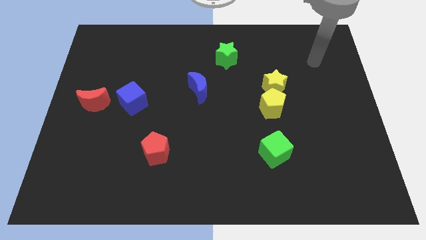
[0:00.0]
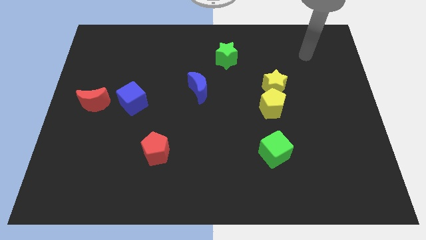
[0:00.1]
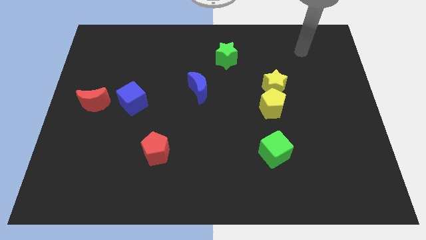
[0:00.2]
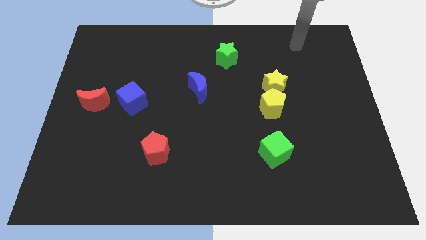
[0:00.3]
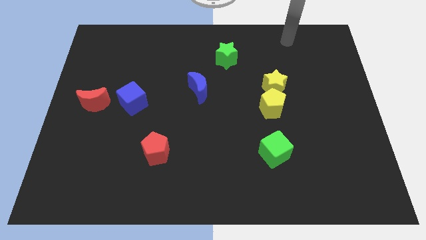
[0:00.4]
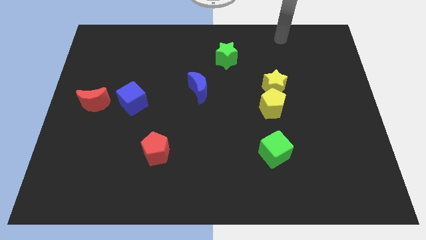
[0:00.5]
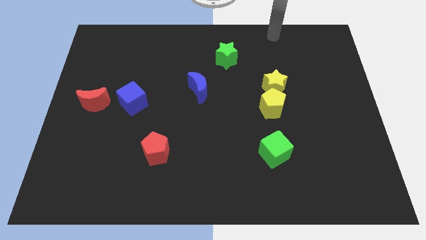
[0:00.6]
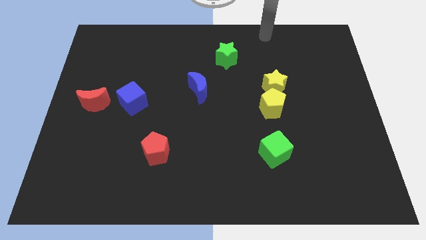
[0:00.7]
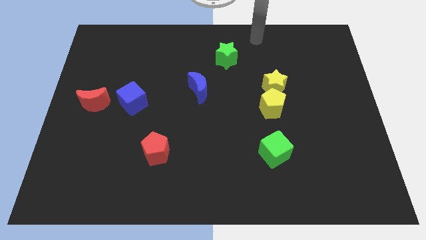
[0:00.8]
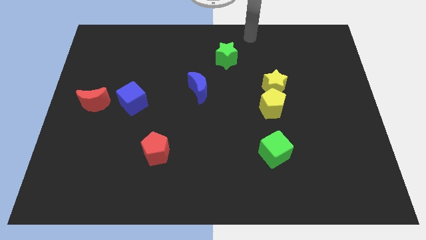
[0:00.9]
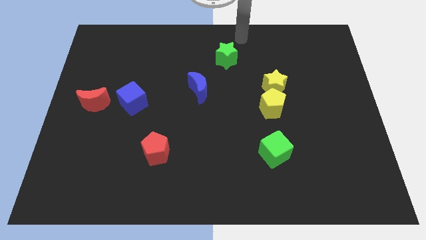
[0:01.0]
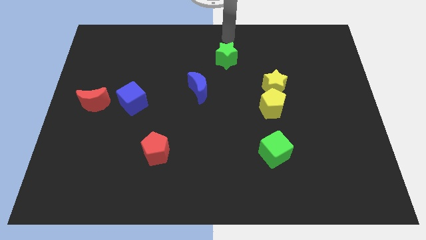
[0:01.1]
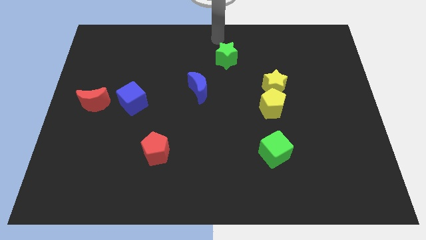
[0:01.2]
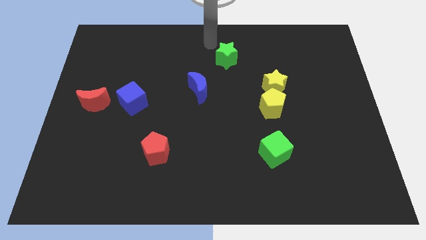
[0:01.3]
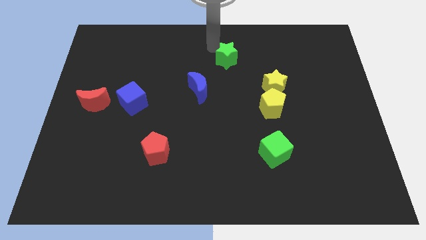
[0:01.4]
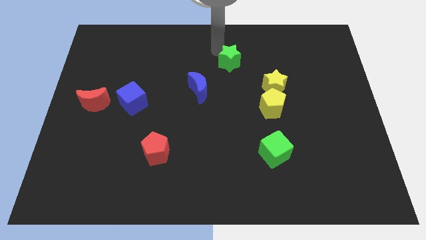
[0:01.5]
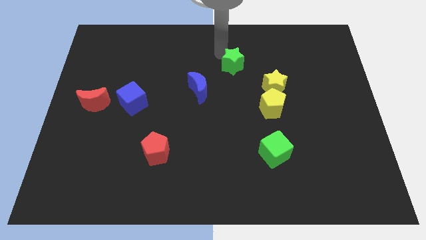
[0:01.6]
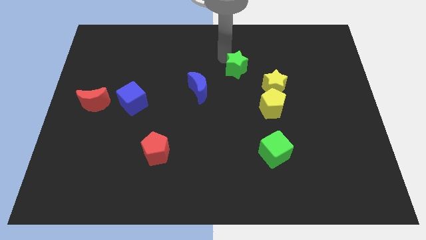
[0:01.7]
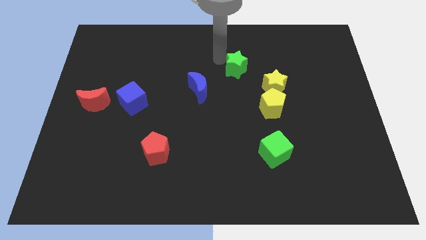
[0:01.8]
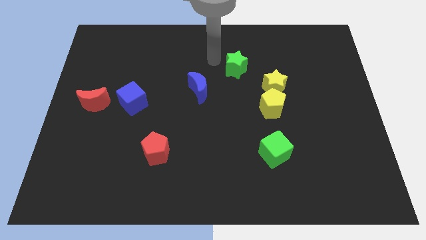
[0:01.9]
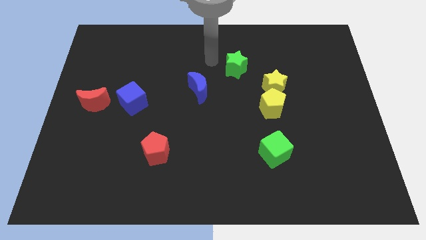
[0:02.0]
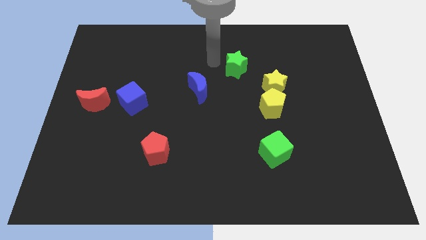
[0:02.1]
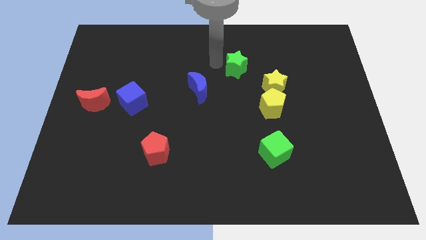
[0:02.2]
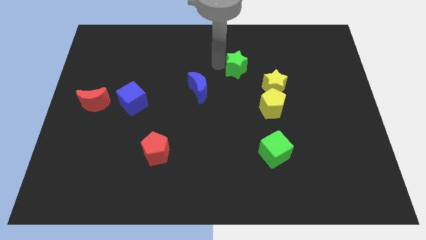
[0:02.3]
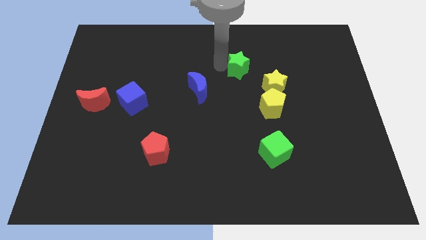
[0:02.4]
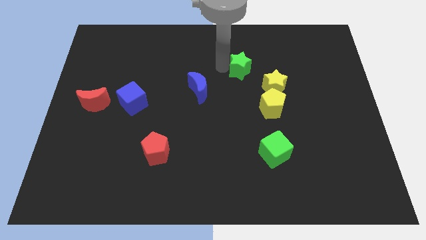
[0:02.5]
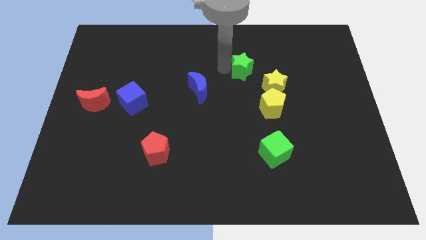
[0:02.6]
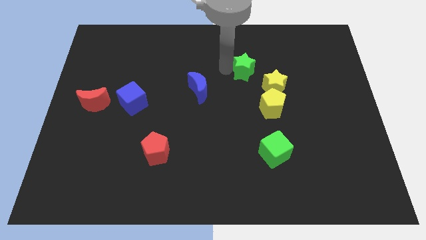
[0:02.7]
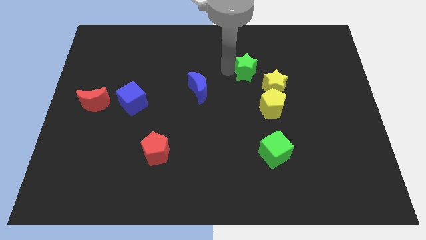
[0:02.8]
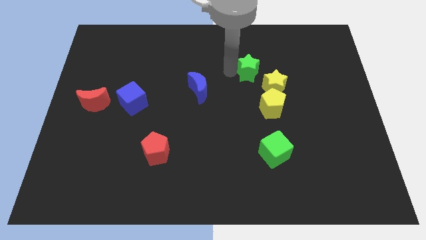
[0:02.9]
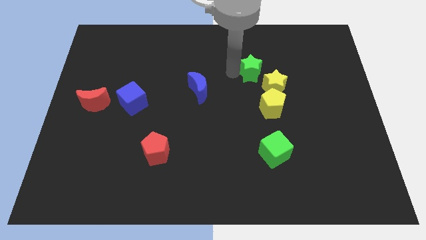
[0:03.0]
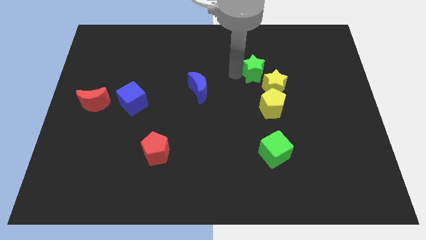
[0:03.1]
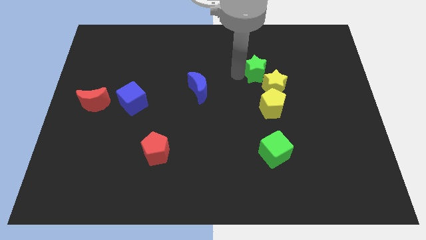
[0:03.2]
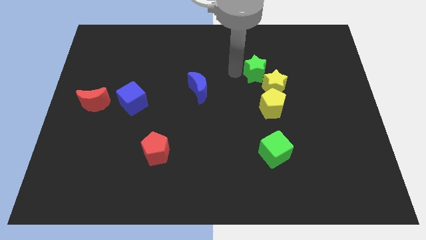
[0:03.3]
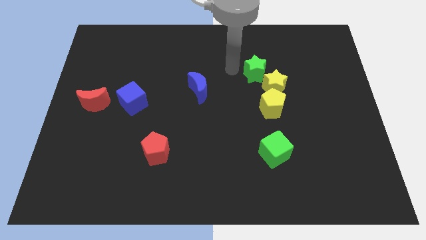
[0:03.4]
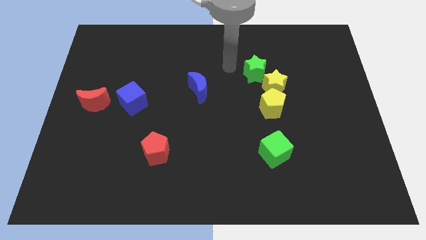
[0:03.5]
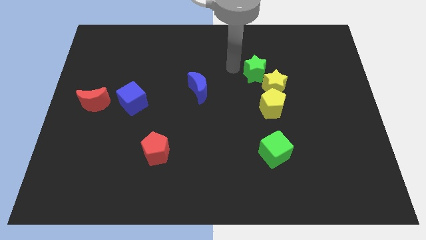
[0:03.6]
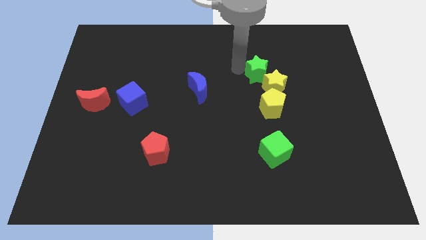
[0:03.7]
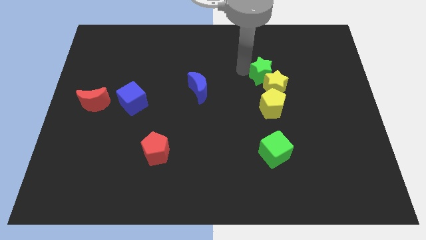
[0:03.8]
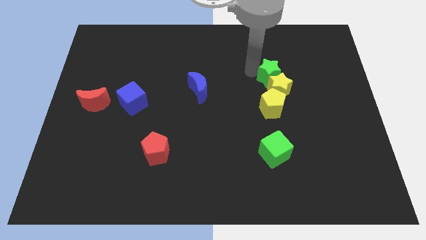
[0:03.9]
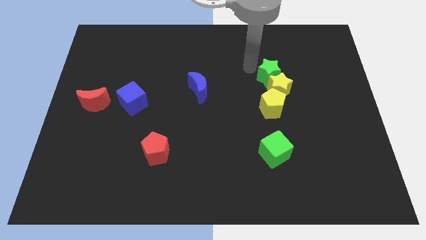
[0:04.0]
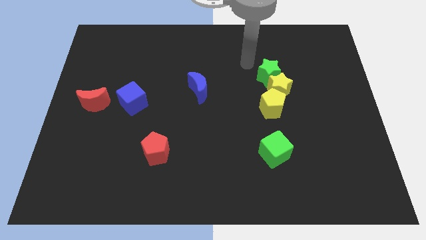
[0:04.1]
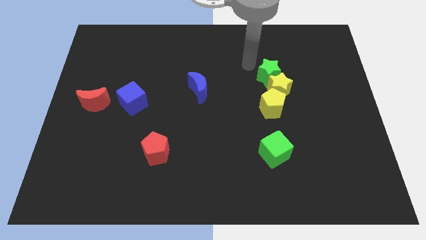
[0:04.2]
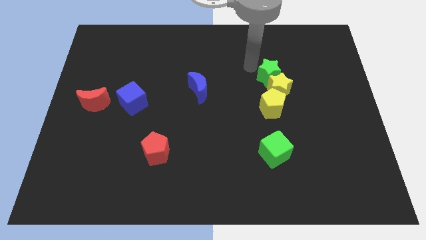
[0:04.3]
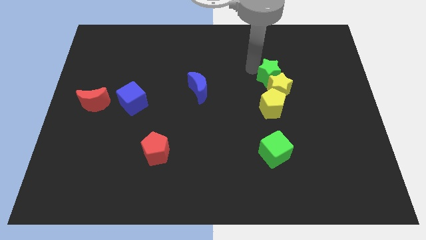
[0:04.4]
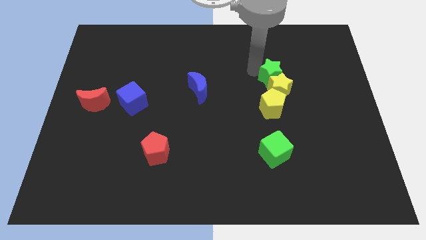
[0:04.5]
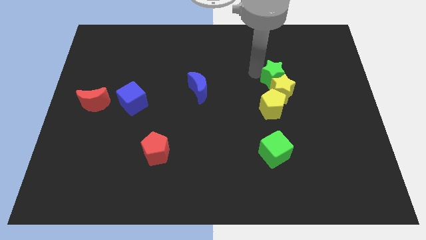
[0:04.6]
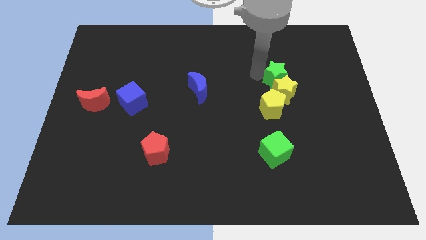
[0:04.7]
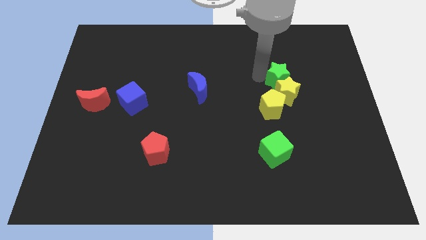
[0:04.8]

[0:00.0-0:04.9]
move the green star diagonally up and to the right of the yellow pentagon

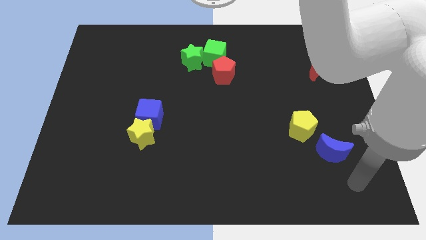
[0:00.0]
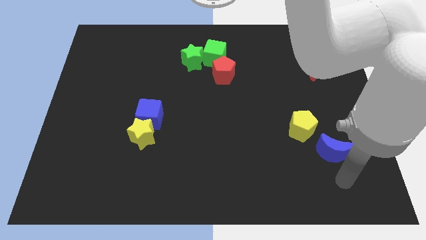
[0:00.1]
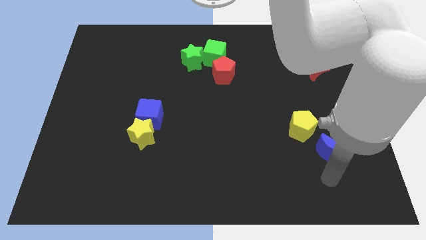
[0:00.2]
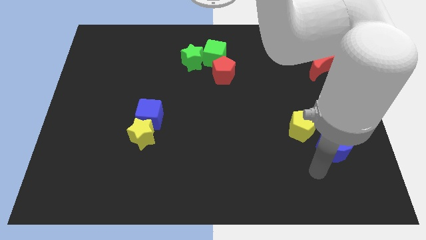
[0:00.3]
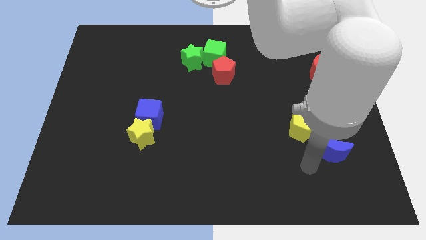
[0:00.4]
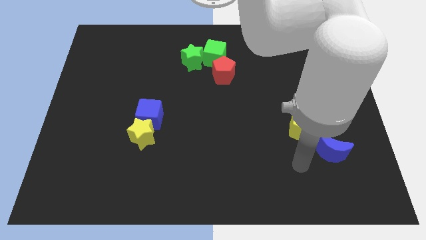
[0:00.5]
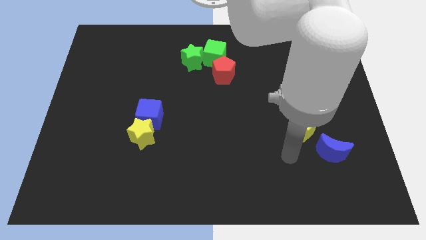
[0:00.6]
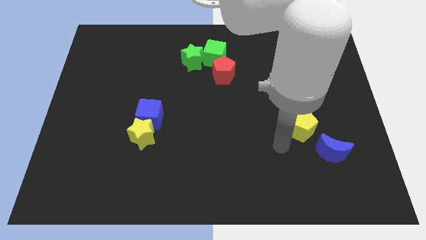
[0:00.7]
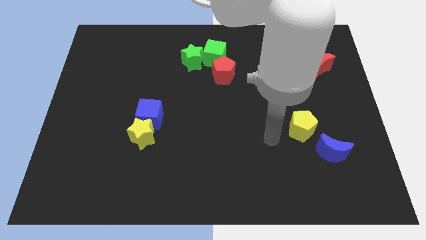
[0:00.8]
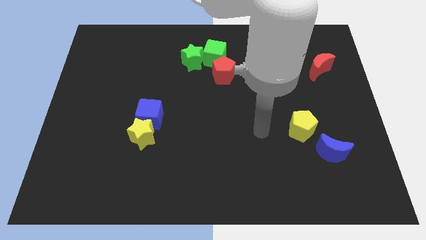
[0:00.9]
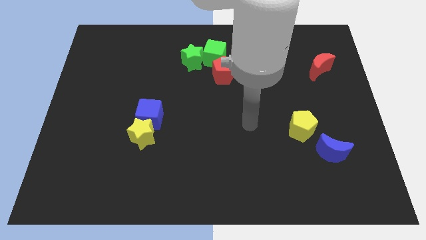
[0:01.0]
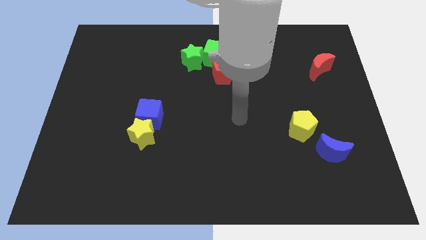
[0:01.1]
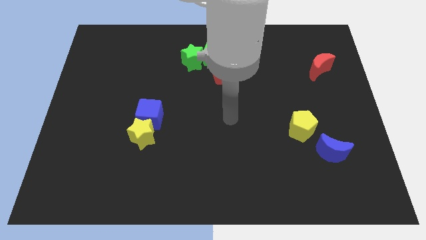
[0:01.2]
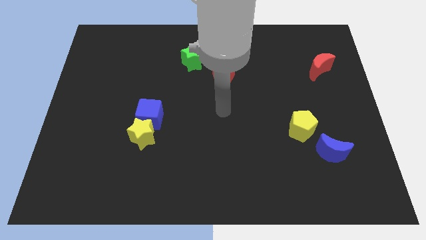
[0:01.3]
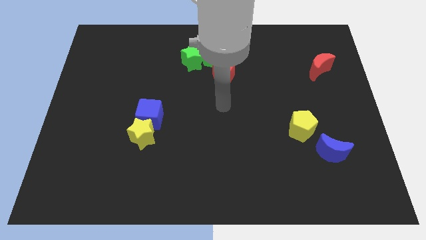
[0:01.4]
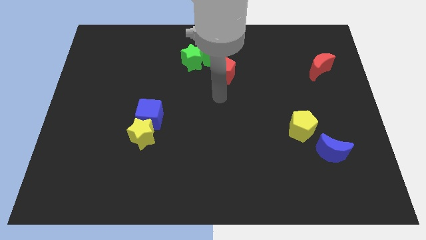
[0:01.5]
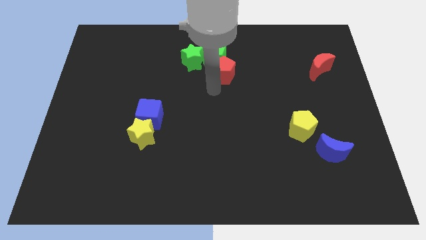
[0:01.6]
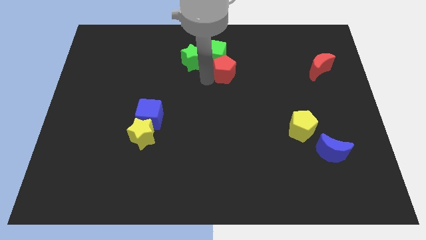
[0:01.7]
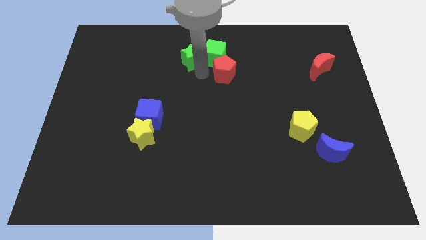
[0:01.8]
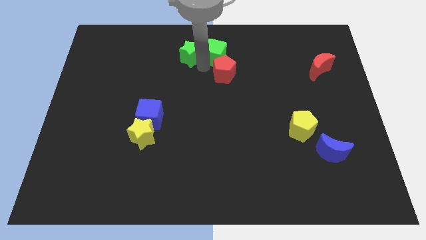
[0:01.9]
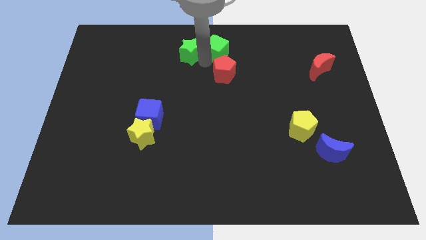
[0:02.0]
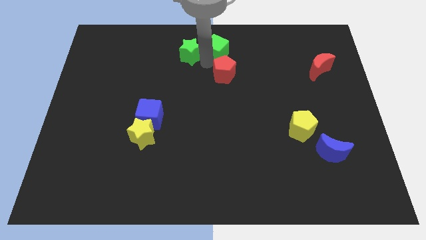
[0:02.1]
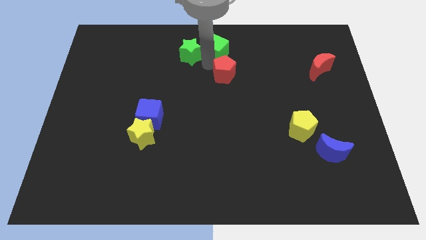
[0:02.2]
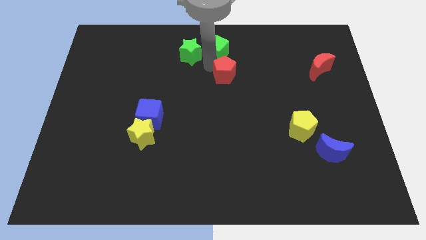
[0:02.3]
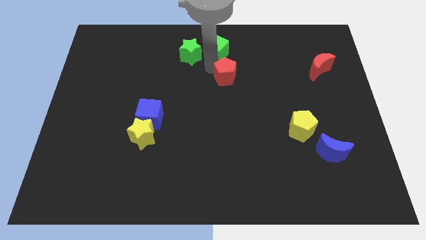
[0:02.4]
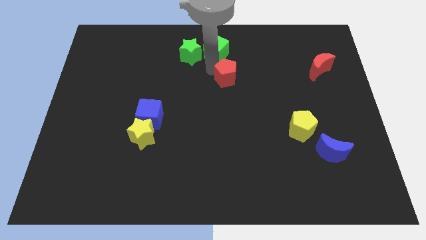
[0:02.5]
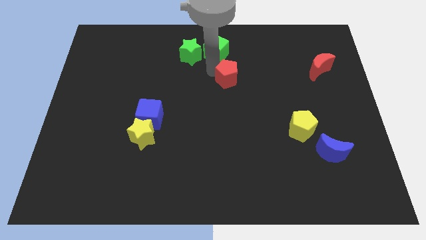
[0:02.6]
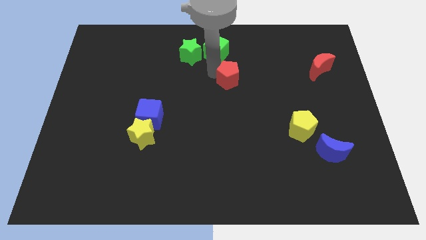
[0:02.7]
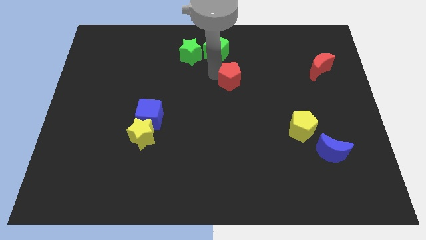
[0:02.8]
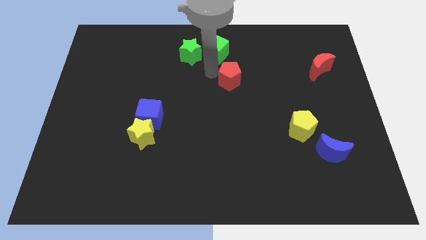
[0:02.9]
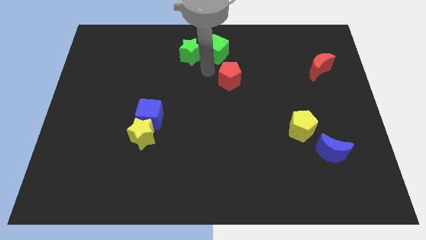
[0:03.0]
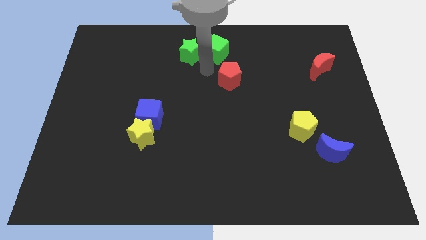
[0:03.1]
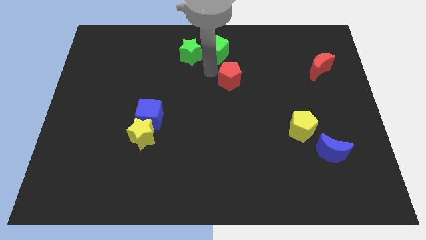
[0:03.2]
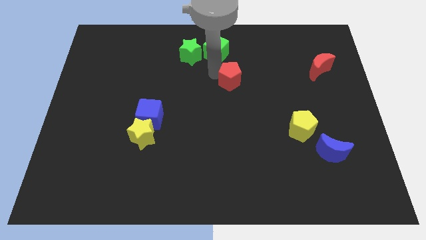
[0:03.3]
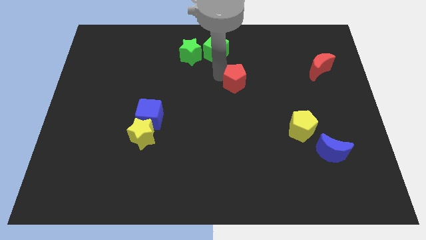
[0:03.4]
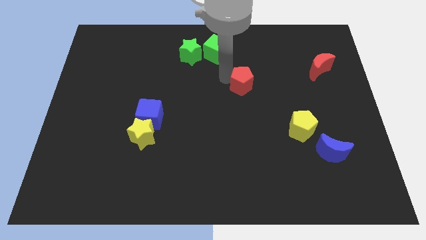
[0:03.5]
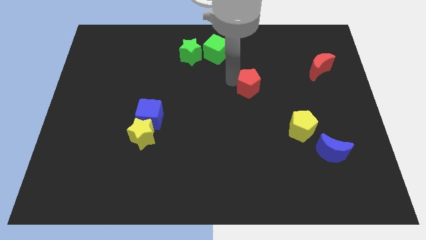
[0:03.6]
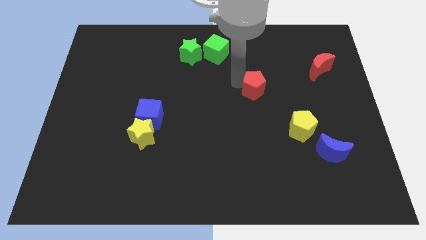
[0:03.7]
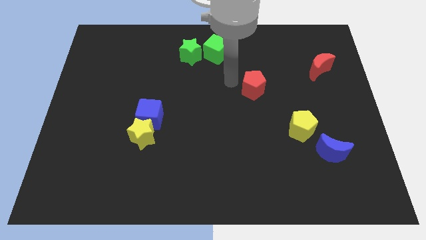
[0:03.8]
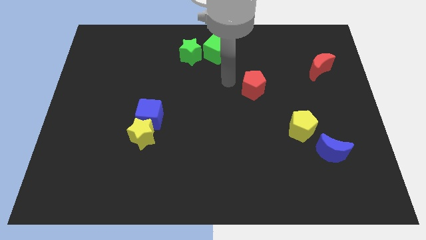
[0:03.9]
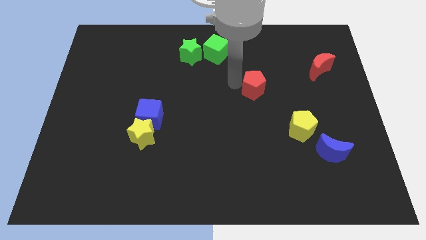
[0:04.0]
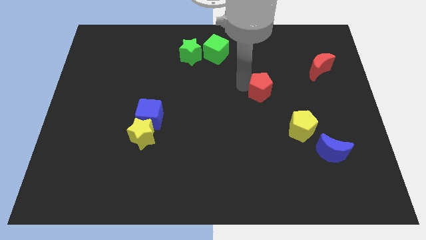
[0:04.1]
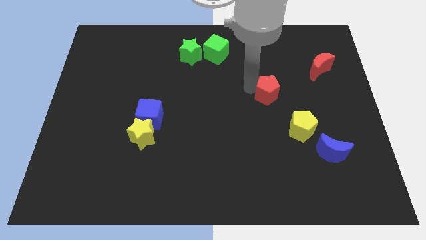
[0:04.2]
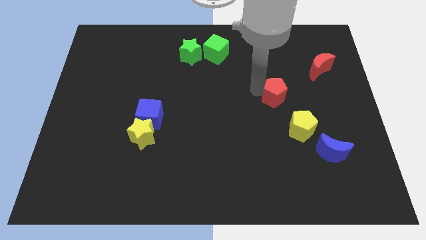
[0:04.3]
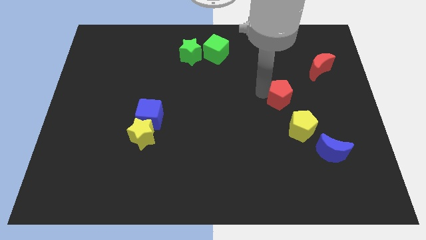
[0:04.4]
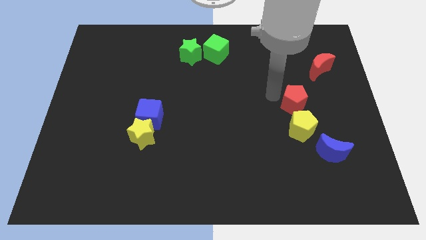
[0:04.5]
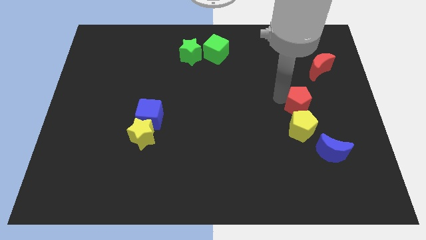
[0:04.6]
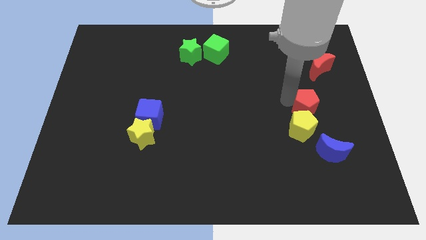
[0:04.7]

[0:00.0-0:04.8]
push the red pentagon to the top of the blue moon
